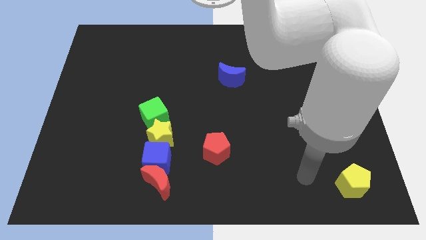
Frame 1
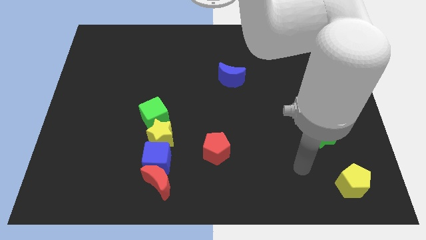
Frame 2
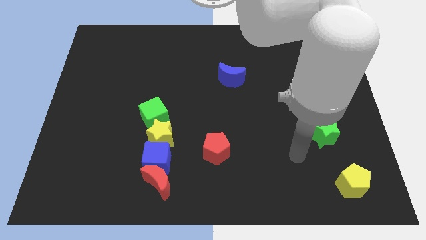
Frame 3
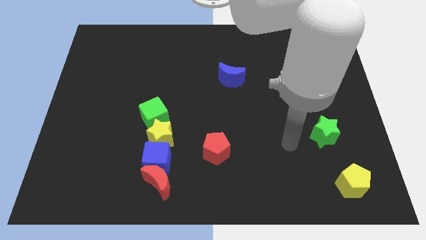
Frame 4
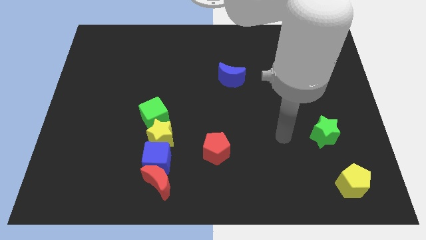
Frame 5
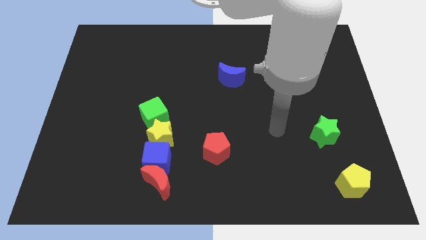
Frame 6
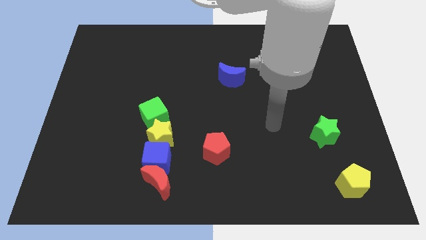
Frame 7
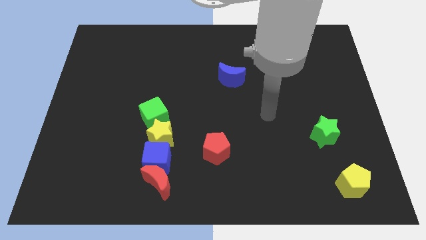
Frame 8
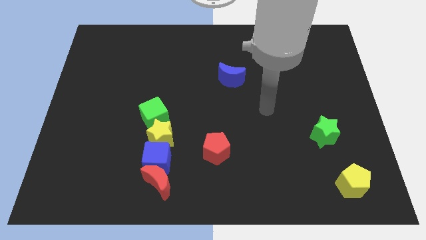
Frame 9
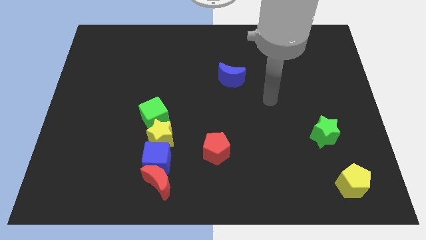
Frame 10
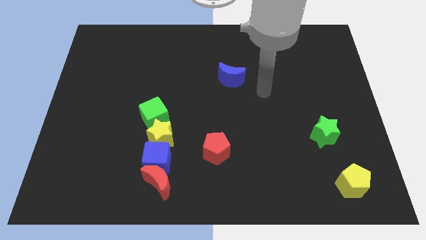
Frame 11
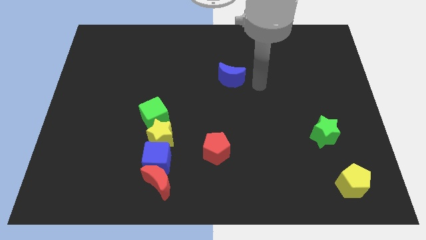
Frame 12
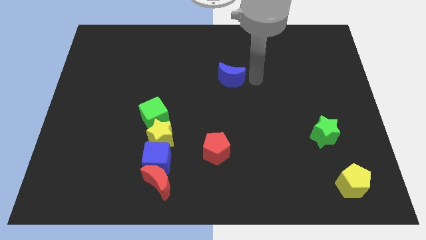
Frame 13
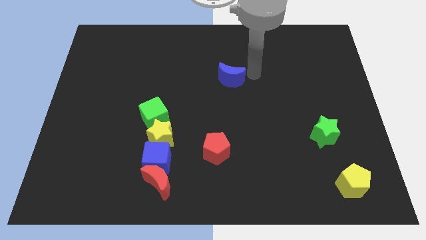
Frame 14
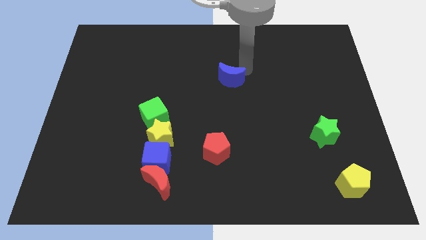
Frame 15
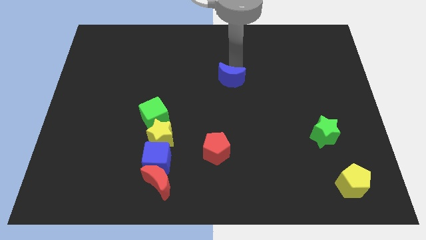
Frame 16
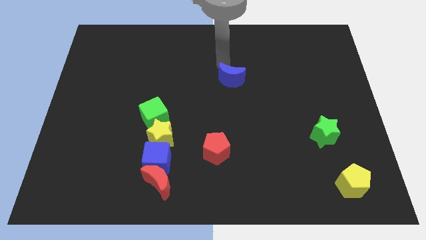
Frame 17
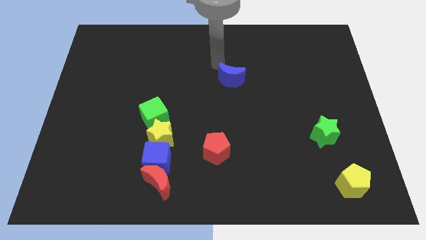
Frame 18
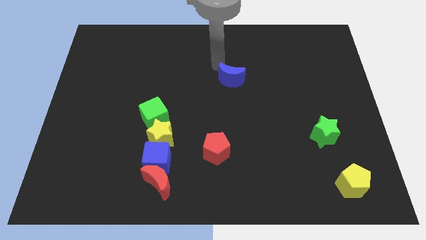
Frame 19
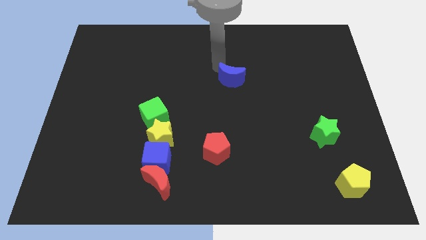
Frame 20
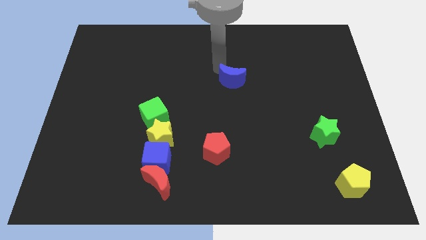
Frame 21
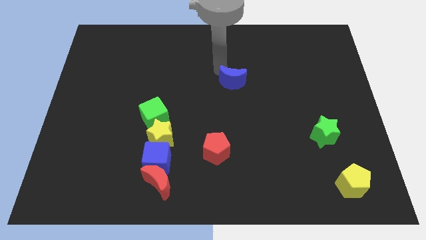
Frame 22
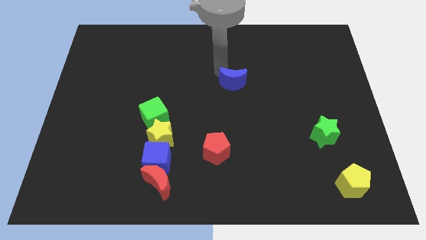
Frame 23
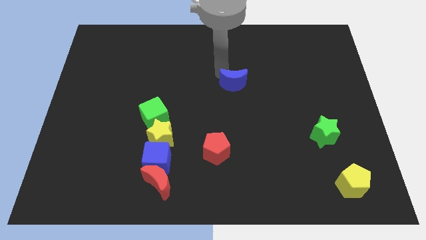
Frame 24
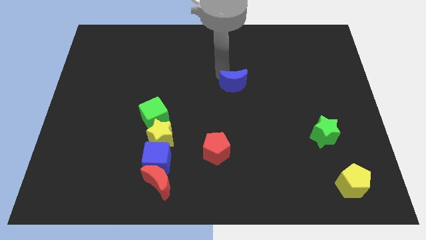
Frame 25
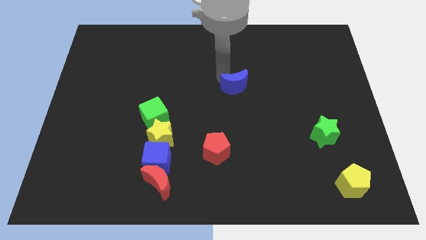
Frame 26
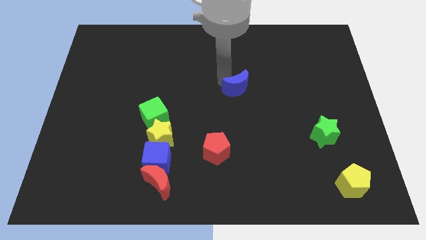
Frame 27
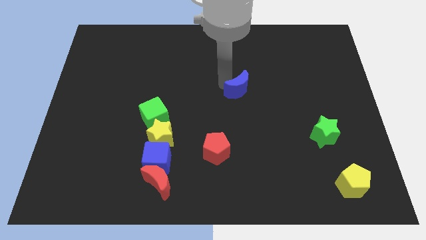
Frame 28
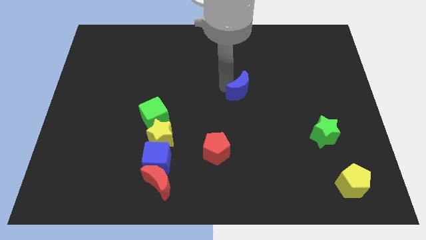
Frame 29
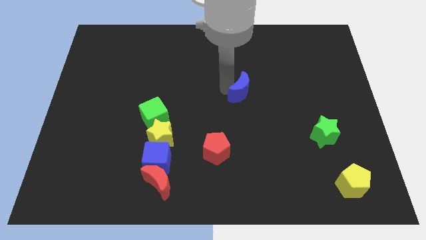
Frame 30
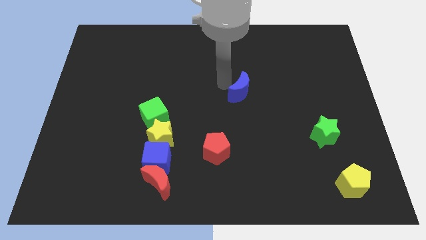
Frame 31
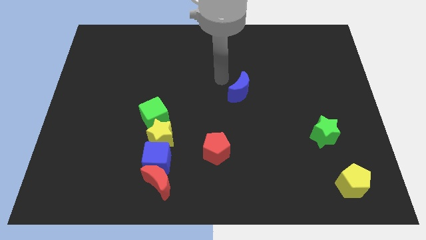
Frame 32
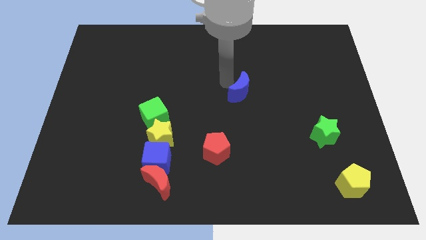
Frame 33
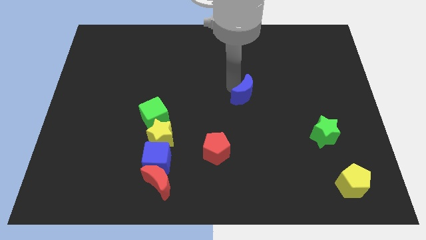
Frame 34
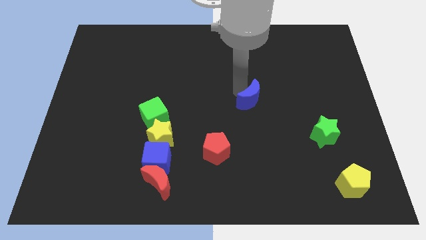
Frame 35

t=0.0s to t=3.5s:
push the blue moon downwards and then right a little

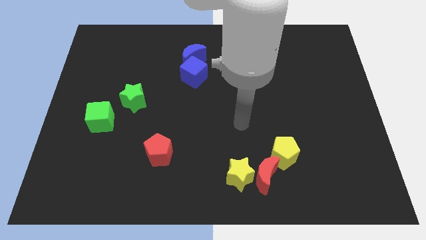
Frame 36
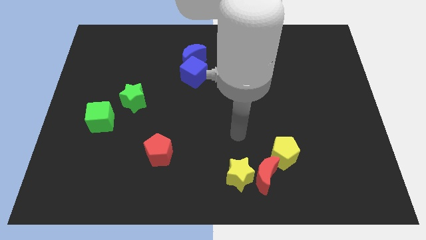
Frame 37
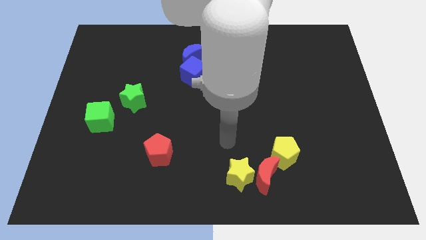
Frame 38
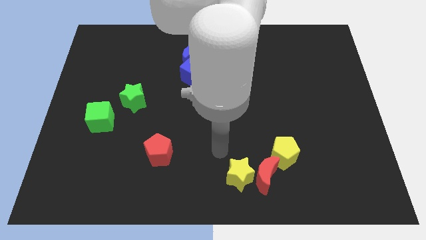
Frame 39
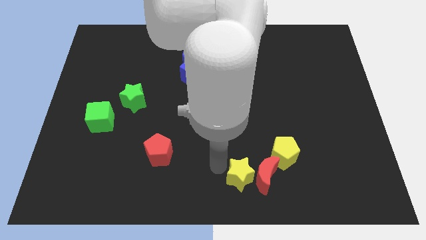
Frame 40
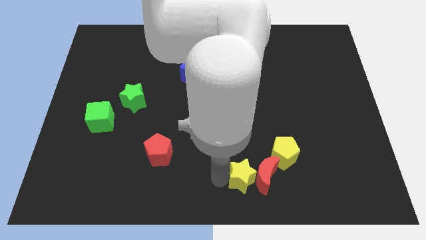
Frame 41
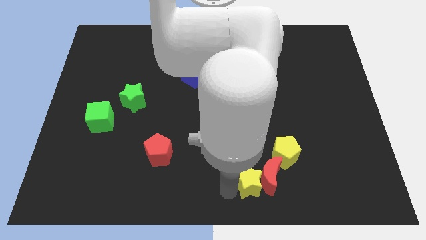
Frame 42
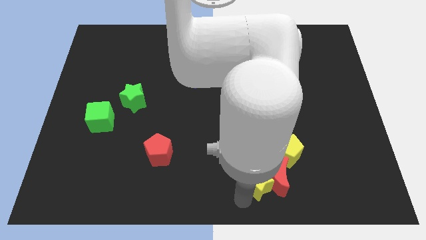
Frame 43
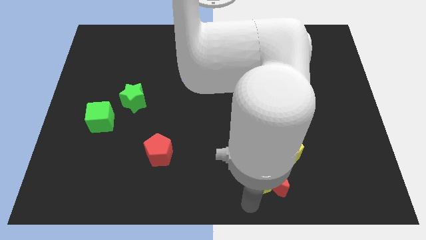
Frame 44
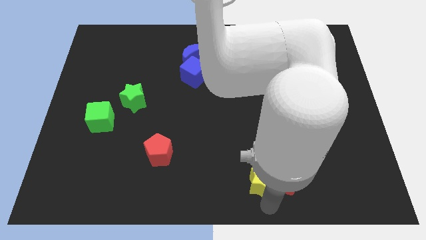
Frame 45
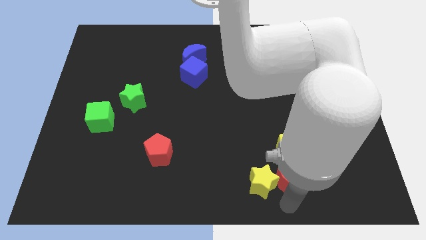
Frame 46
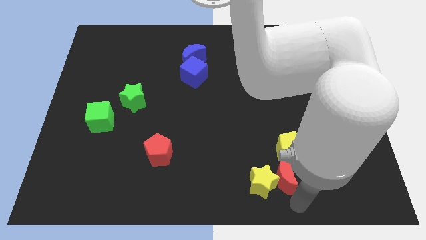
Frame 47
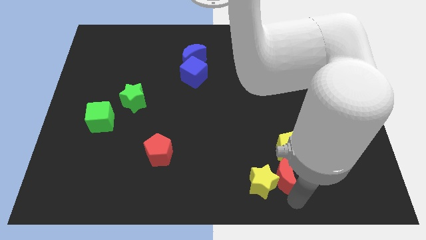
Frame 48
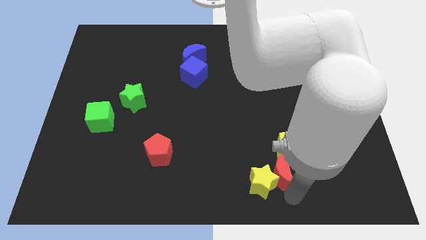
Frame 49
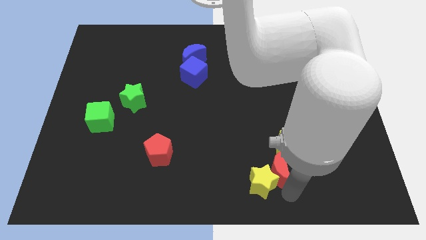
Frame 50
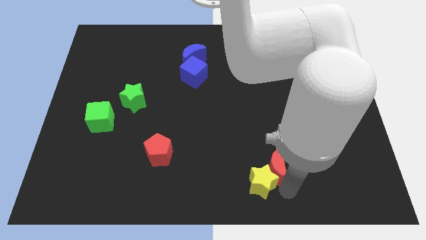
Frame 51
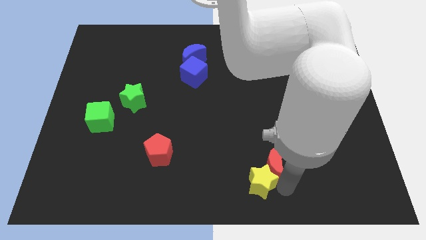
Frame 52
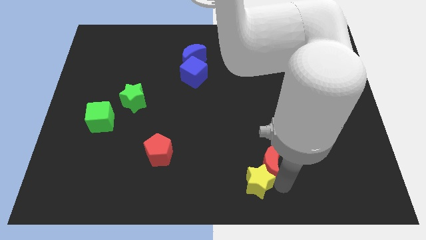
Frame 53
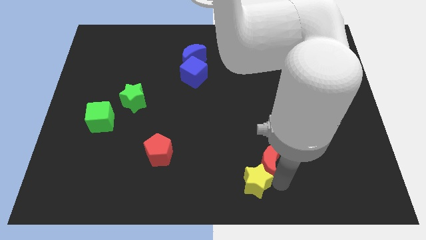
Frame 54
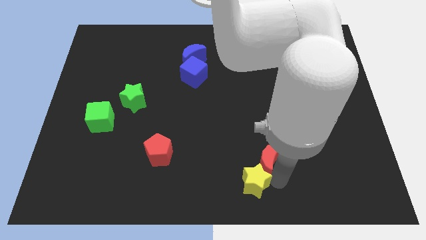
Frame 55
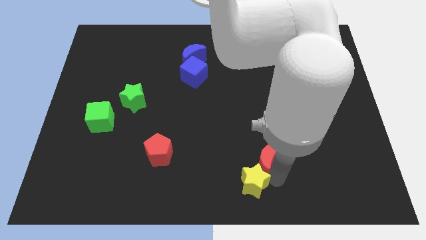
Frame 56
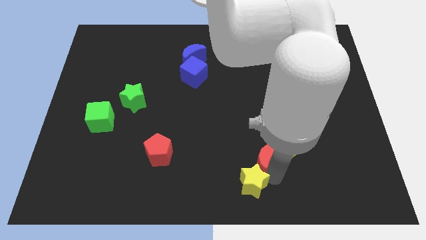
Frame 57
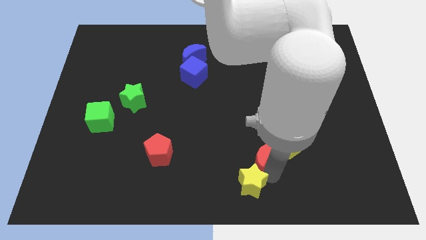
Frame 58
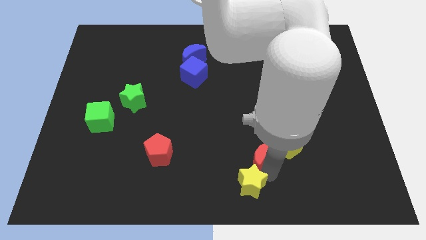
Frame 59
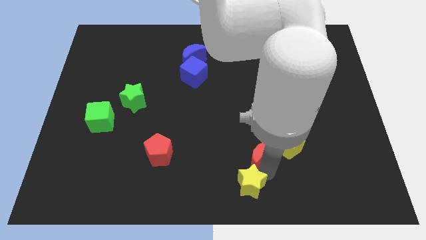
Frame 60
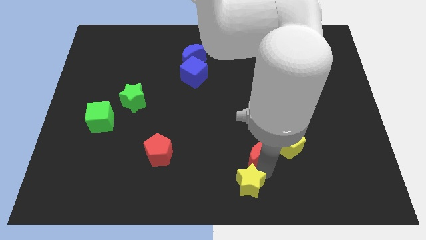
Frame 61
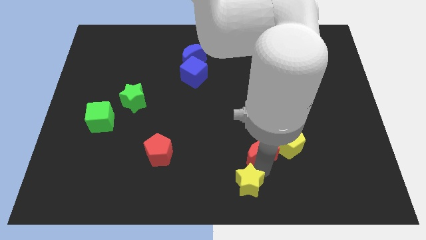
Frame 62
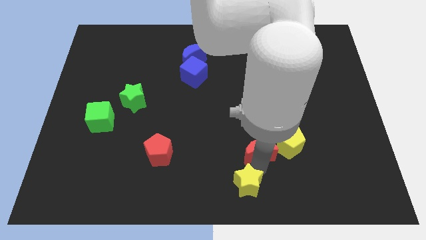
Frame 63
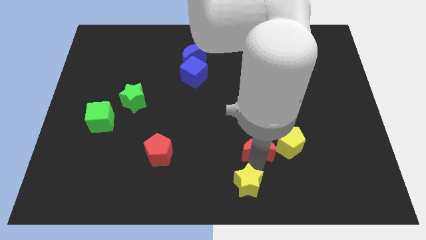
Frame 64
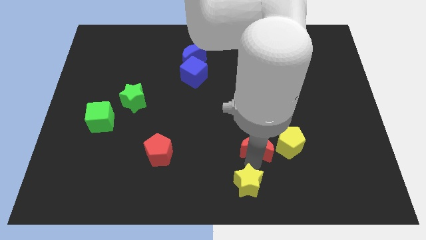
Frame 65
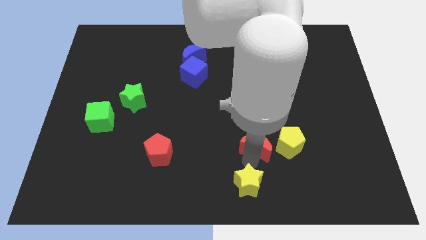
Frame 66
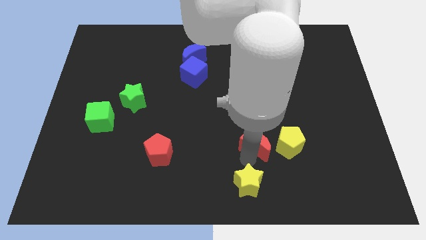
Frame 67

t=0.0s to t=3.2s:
move the red moon a bit upwards

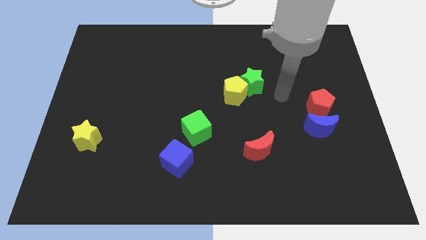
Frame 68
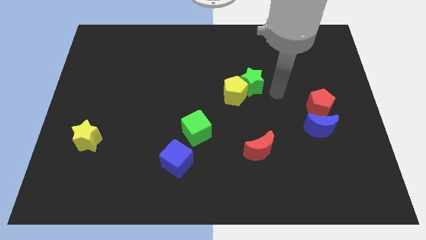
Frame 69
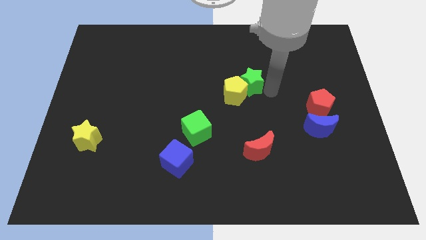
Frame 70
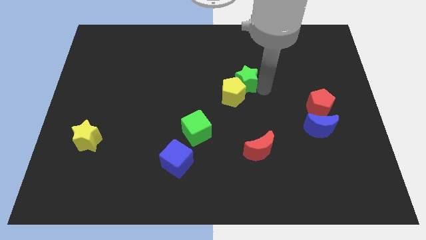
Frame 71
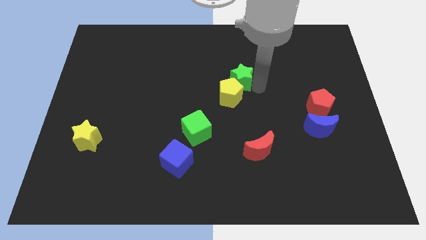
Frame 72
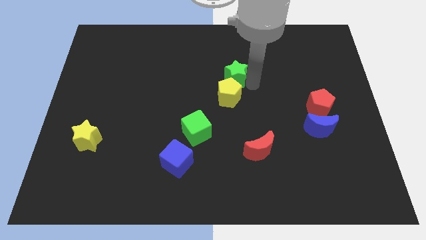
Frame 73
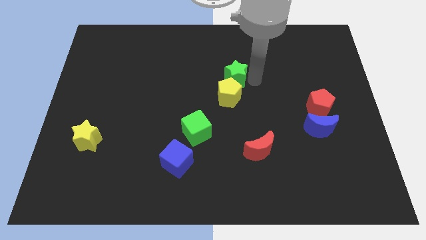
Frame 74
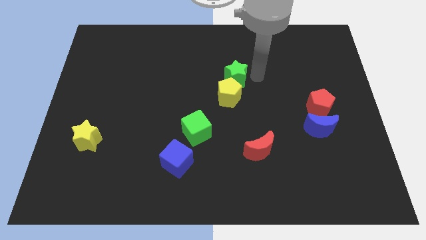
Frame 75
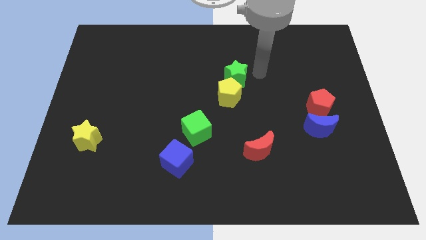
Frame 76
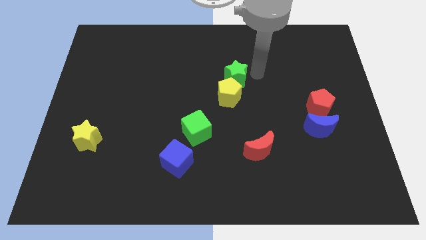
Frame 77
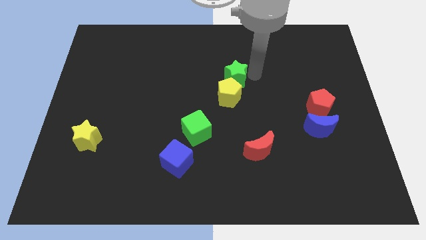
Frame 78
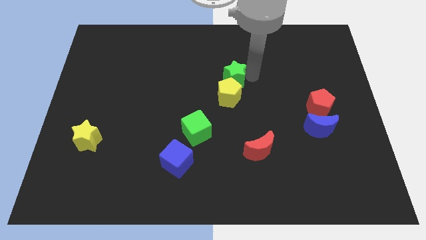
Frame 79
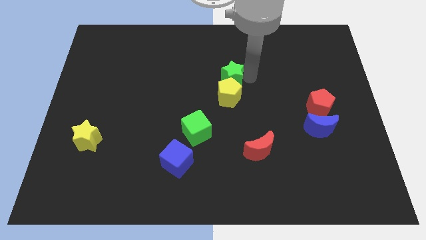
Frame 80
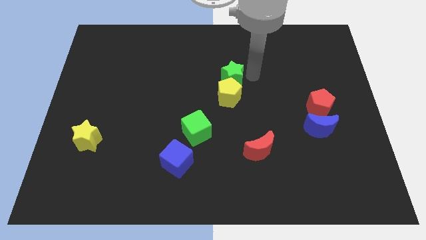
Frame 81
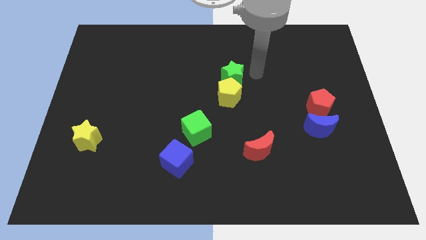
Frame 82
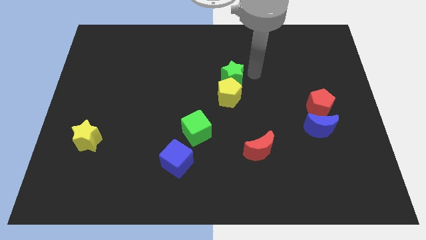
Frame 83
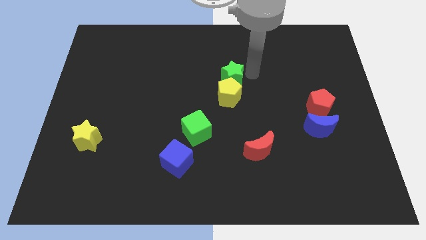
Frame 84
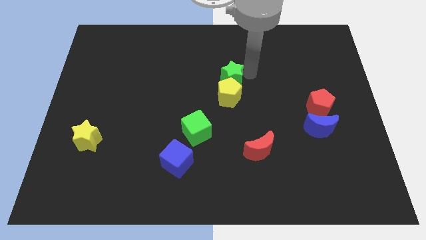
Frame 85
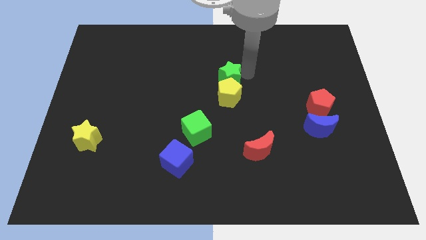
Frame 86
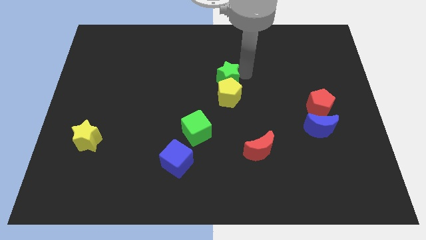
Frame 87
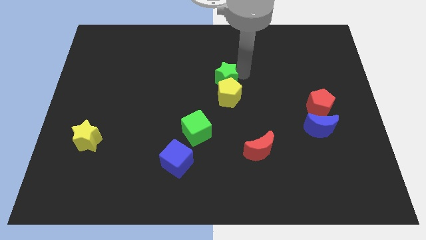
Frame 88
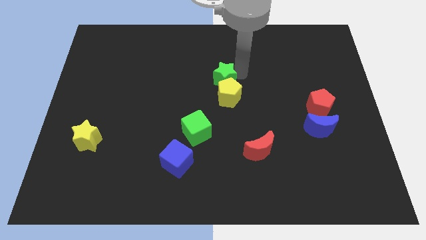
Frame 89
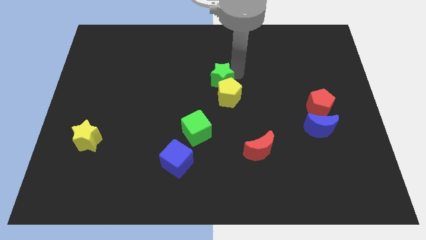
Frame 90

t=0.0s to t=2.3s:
slightly slide the green star left
